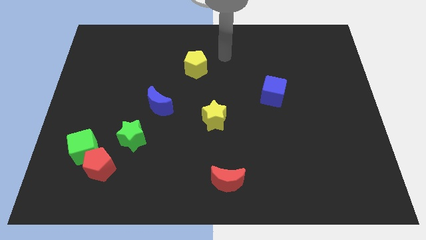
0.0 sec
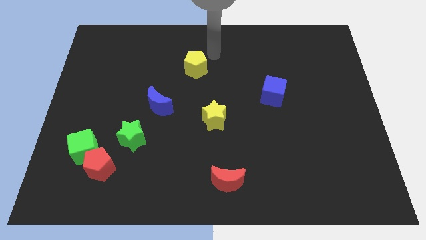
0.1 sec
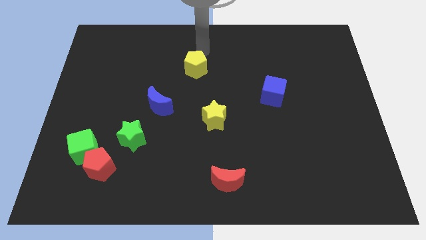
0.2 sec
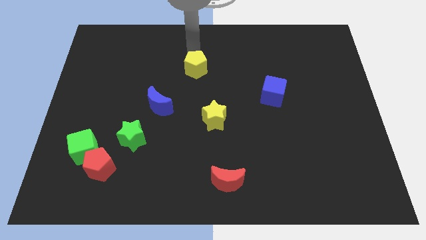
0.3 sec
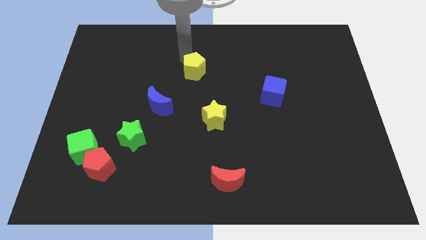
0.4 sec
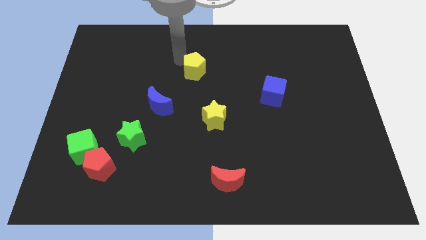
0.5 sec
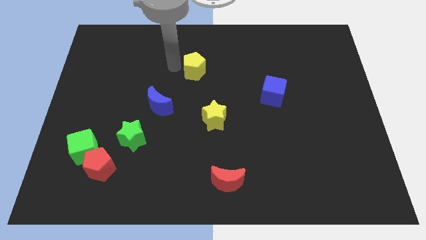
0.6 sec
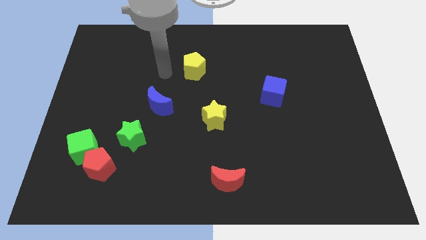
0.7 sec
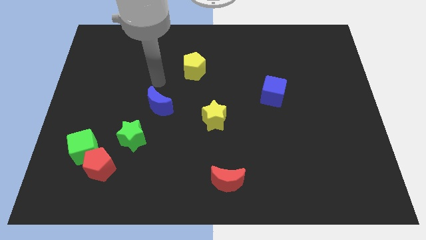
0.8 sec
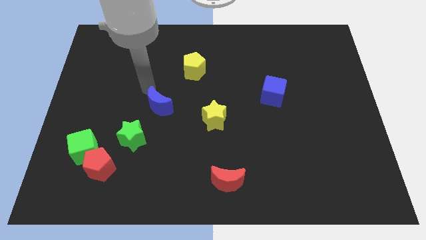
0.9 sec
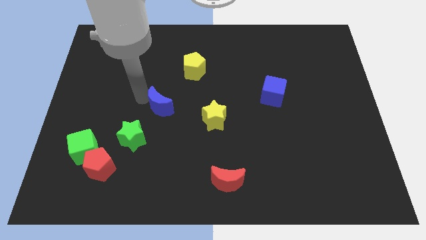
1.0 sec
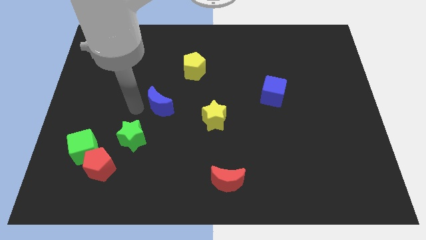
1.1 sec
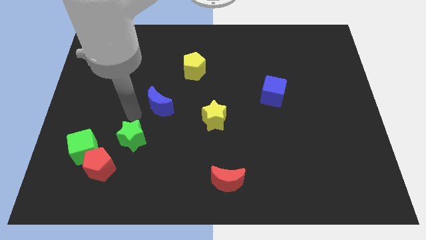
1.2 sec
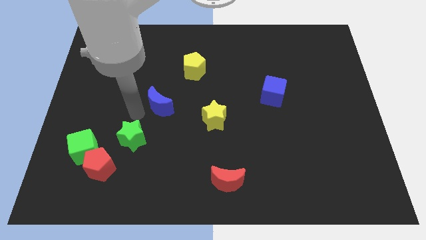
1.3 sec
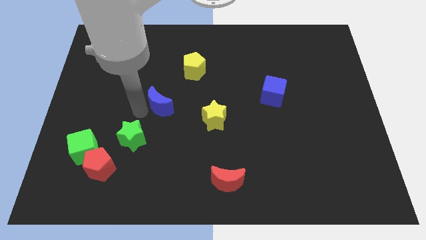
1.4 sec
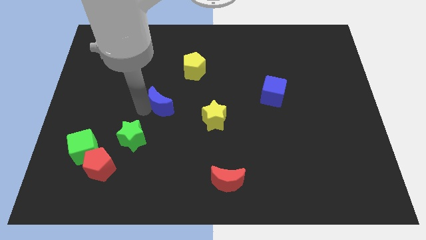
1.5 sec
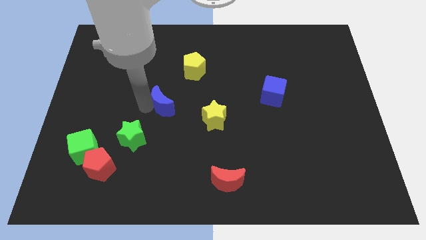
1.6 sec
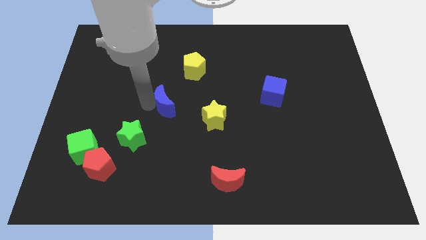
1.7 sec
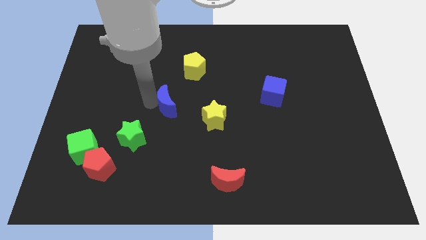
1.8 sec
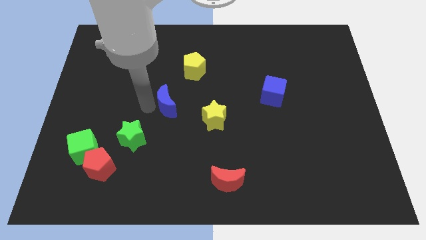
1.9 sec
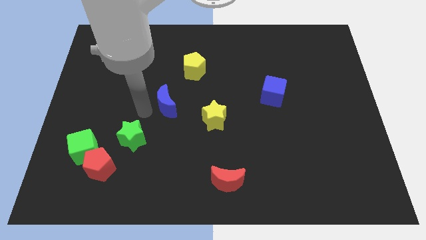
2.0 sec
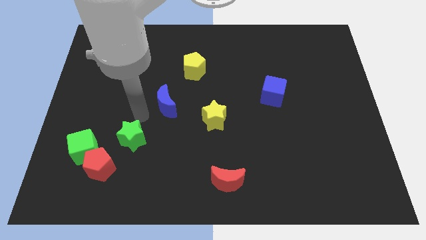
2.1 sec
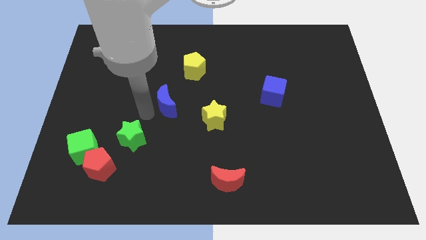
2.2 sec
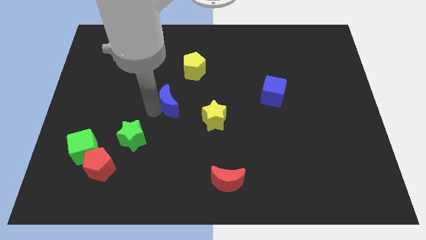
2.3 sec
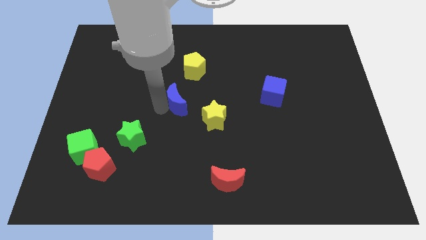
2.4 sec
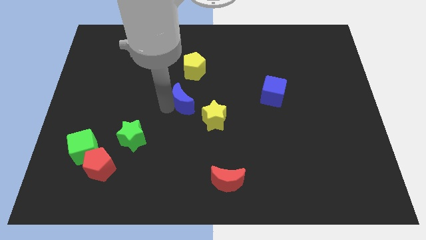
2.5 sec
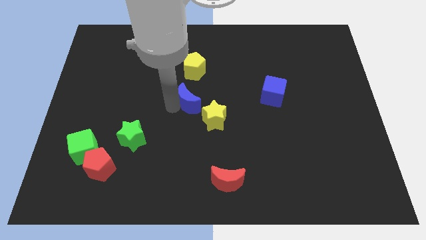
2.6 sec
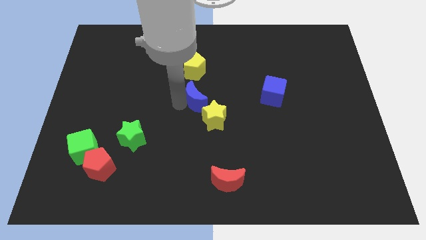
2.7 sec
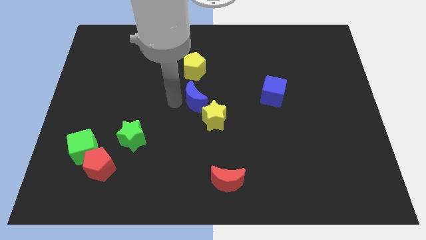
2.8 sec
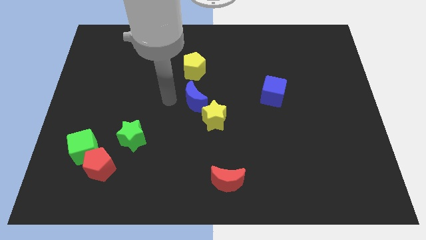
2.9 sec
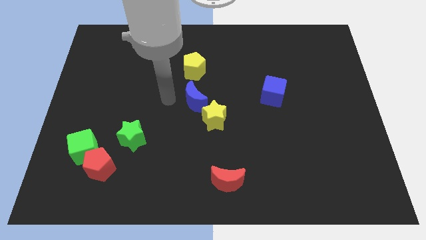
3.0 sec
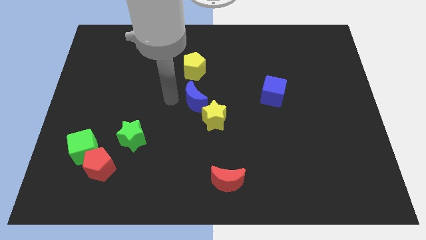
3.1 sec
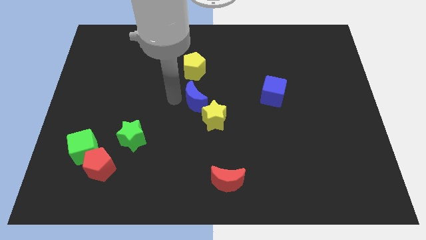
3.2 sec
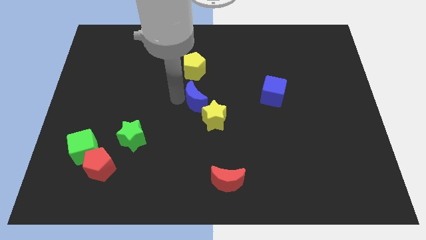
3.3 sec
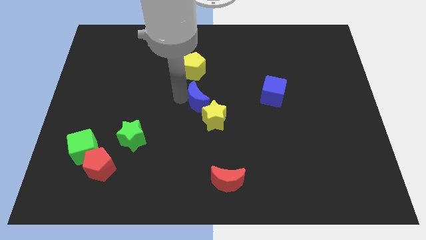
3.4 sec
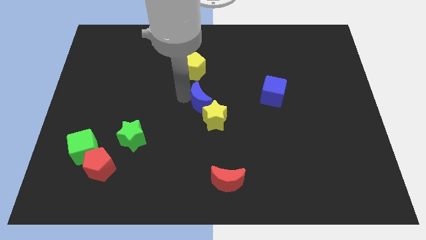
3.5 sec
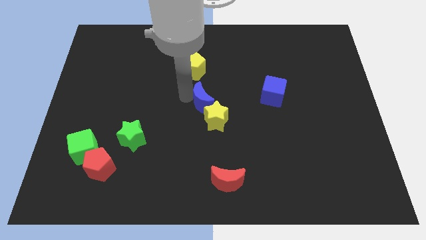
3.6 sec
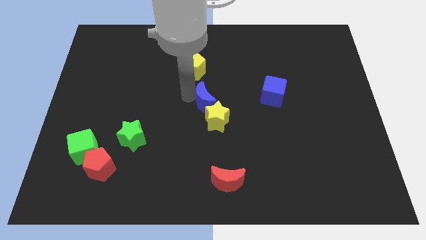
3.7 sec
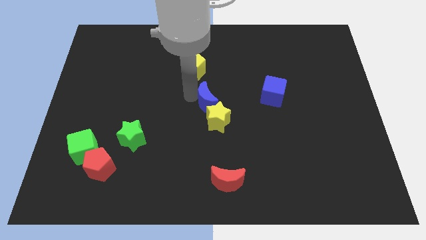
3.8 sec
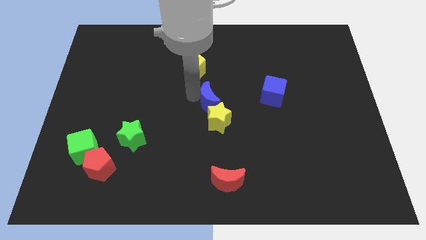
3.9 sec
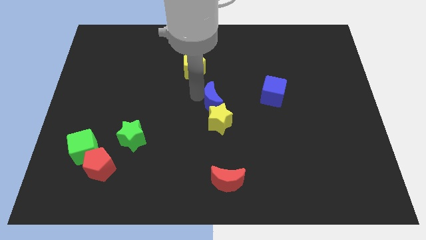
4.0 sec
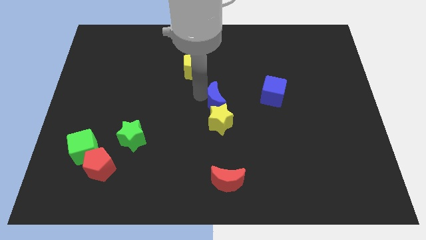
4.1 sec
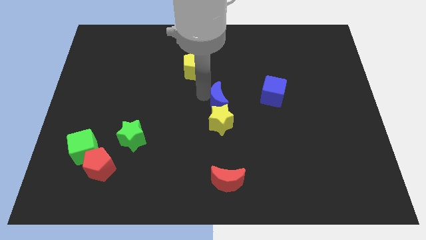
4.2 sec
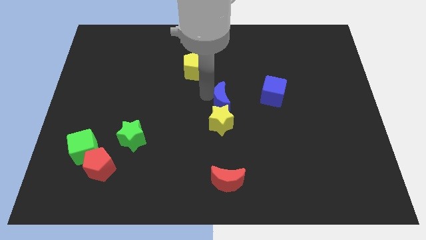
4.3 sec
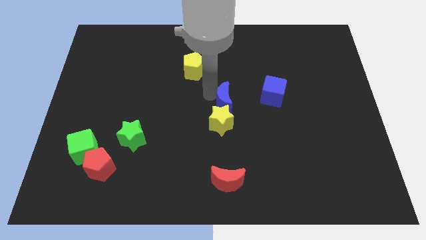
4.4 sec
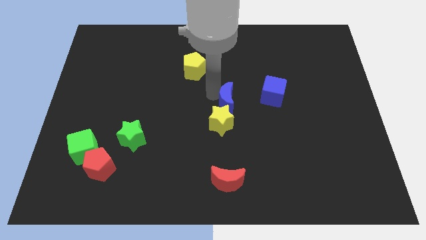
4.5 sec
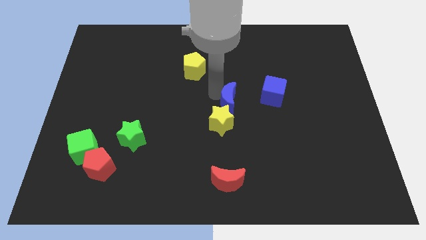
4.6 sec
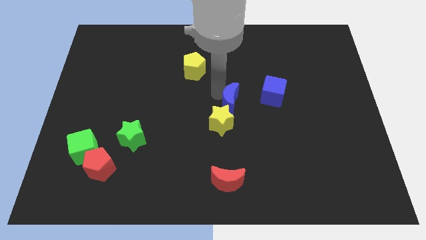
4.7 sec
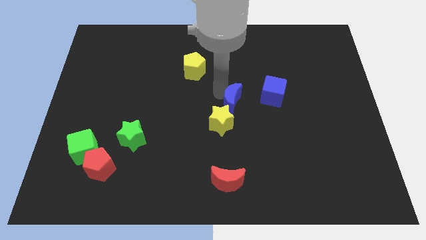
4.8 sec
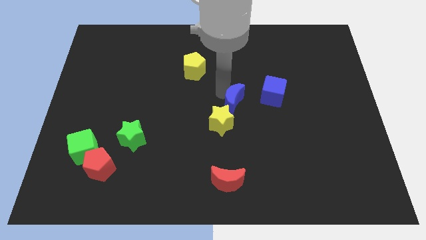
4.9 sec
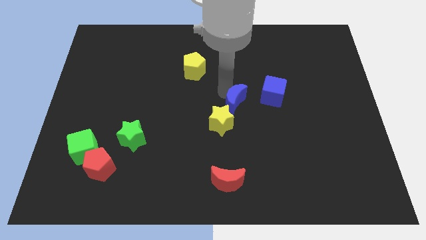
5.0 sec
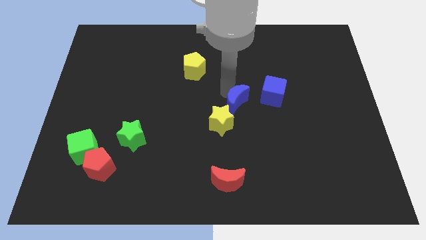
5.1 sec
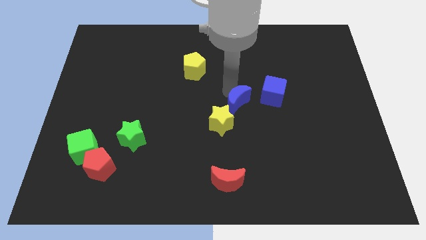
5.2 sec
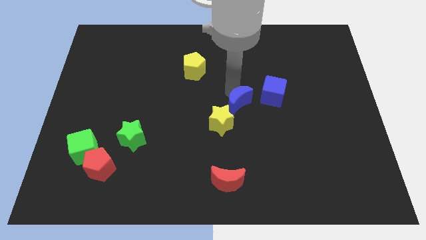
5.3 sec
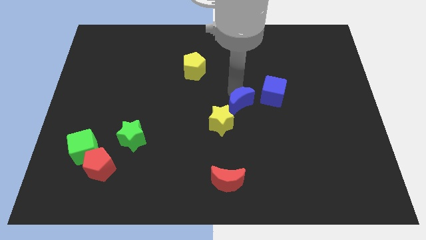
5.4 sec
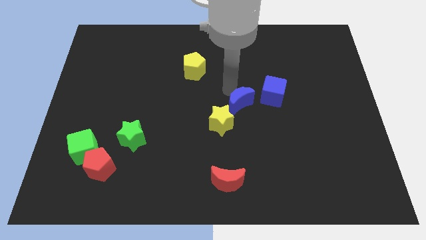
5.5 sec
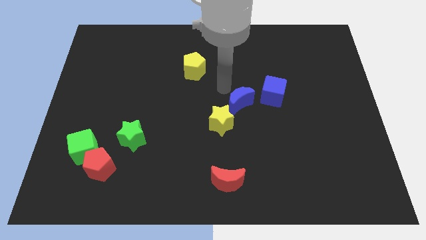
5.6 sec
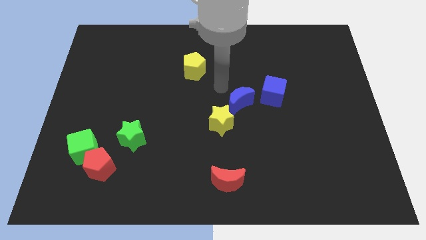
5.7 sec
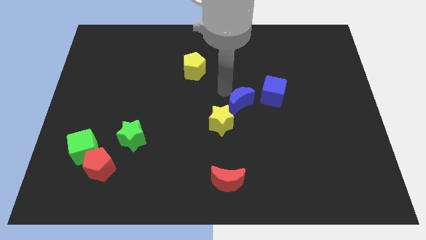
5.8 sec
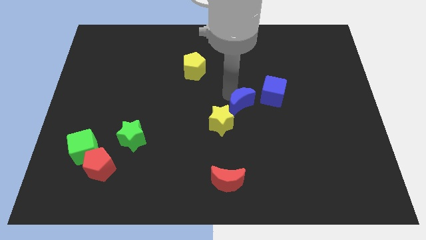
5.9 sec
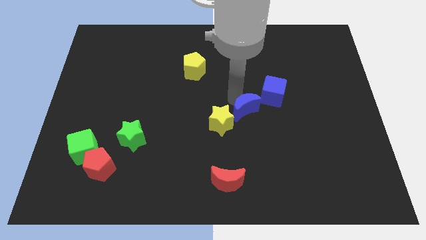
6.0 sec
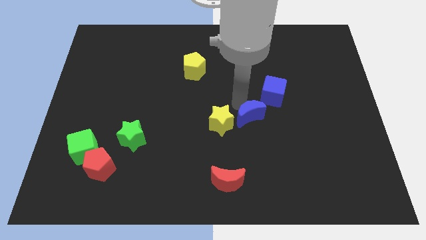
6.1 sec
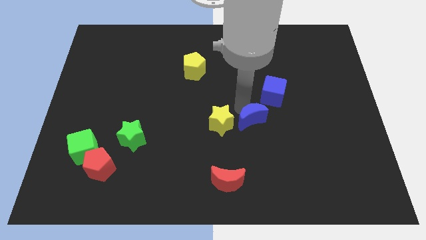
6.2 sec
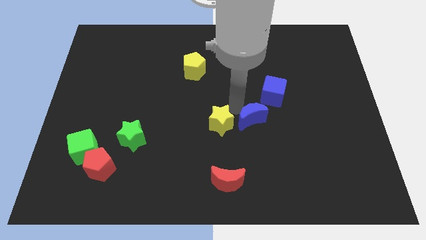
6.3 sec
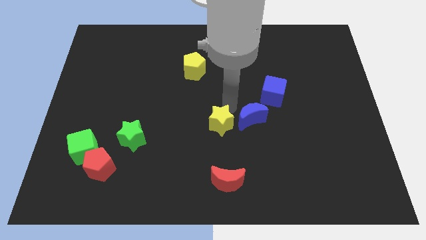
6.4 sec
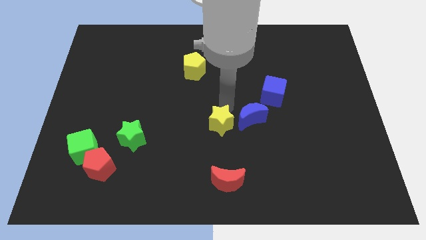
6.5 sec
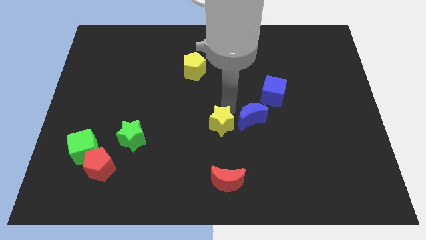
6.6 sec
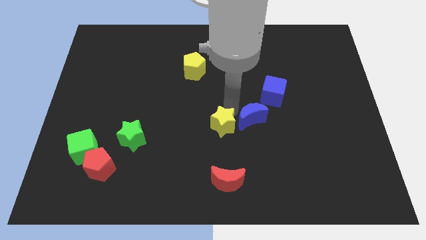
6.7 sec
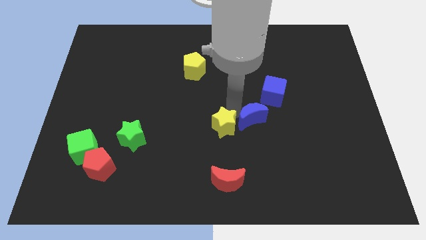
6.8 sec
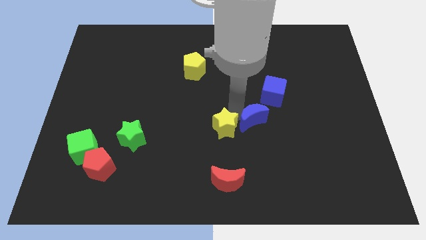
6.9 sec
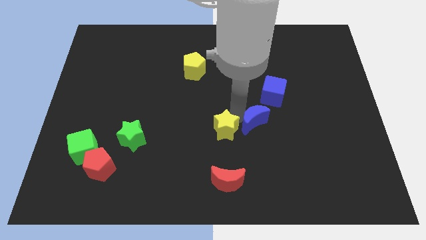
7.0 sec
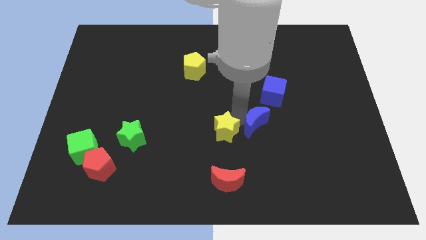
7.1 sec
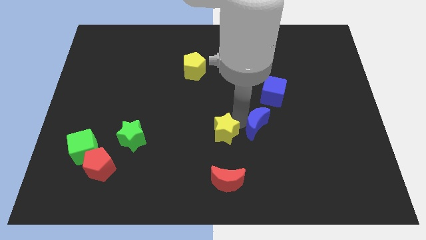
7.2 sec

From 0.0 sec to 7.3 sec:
put the blue moon to the bottom of the blue cube

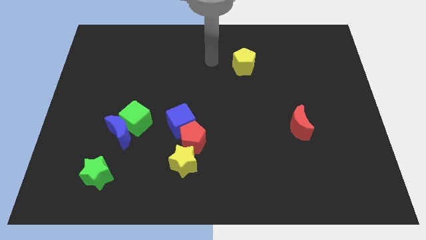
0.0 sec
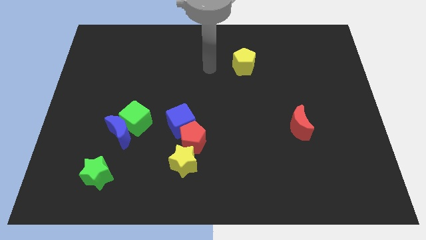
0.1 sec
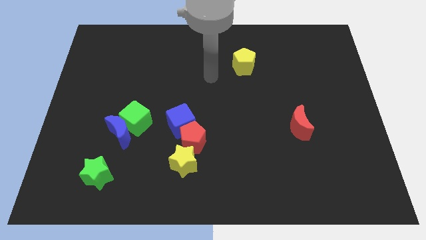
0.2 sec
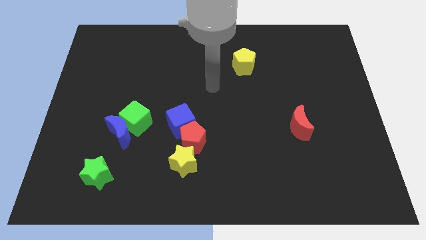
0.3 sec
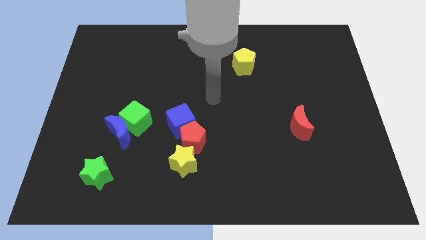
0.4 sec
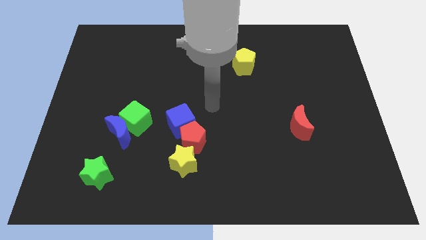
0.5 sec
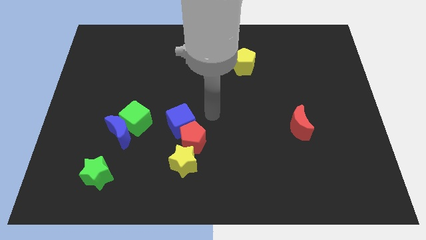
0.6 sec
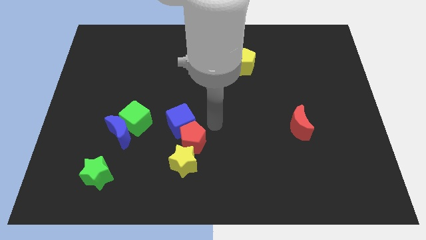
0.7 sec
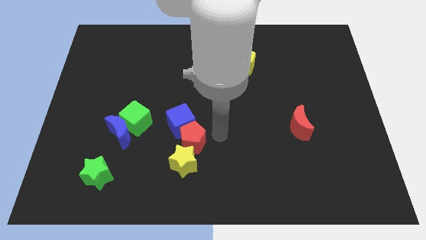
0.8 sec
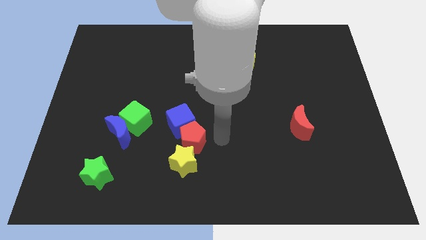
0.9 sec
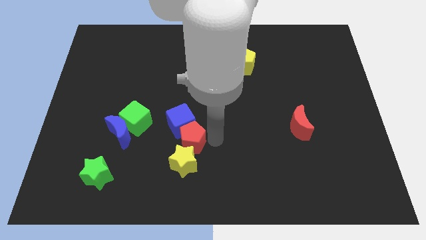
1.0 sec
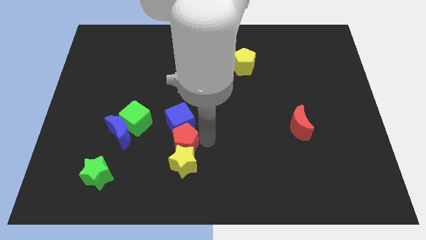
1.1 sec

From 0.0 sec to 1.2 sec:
slide the red pentagon diagonally up and to the left of the yellow star
